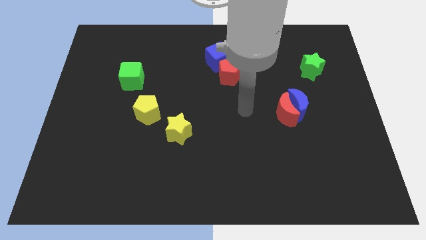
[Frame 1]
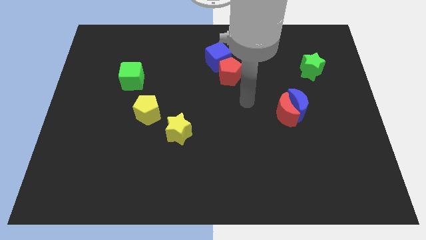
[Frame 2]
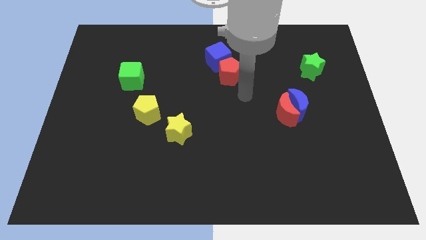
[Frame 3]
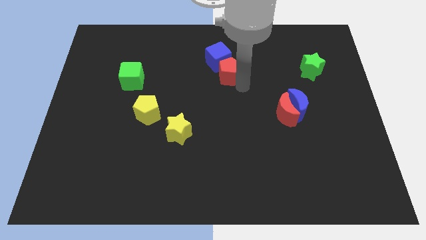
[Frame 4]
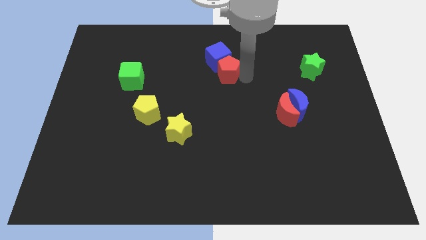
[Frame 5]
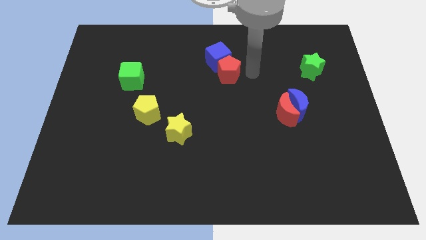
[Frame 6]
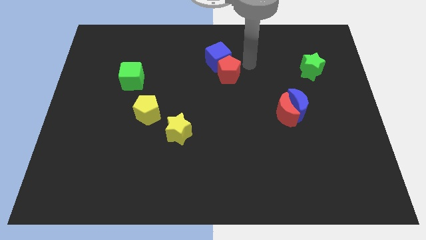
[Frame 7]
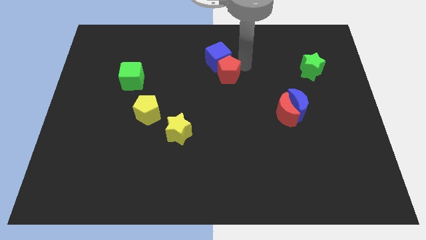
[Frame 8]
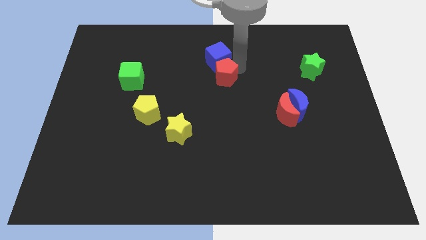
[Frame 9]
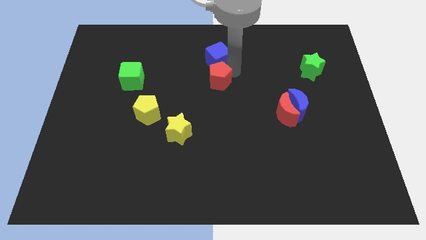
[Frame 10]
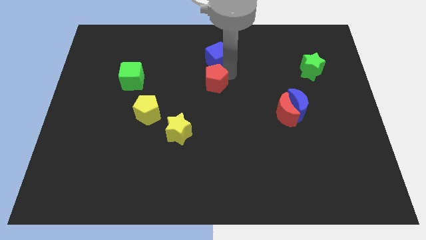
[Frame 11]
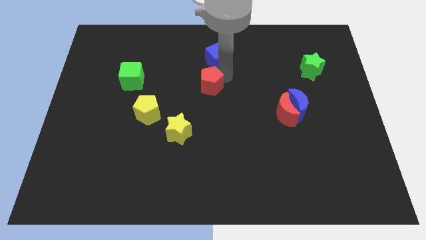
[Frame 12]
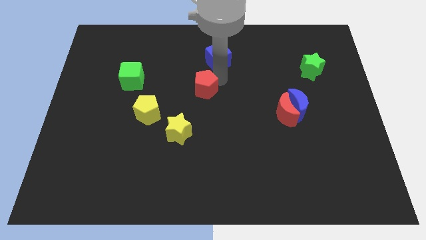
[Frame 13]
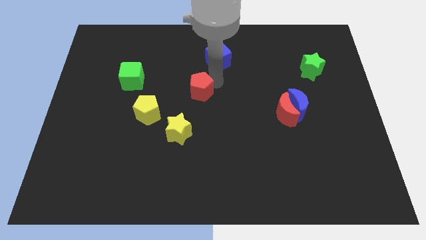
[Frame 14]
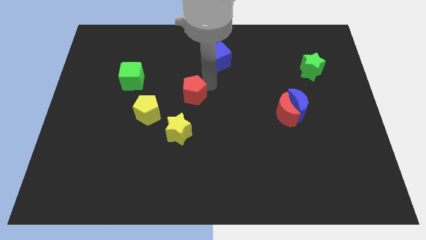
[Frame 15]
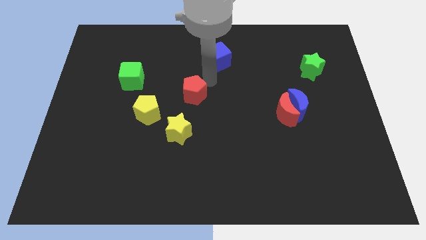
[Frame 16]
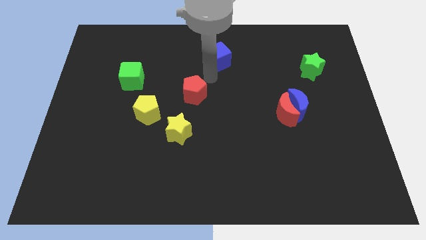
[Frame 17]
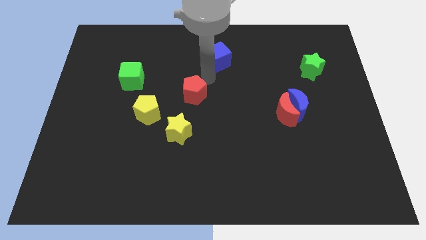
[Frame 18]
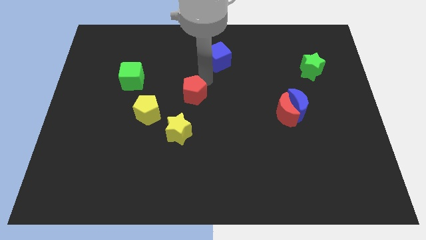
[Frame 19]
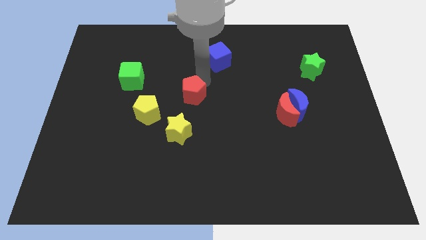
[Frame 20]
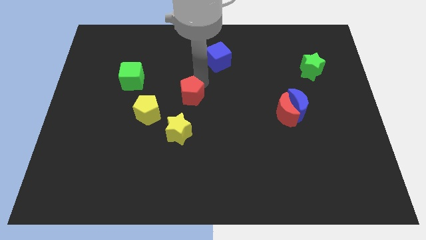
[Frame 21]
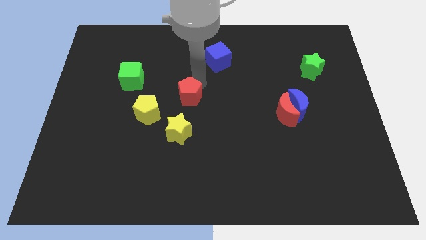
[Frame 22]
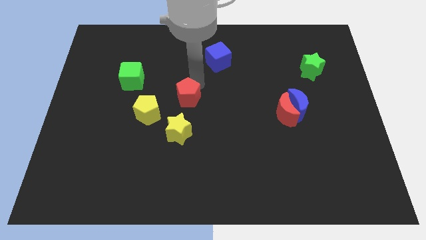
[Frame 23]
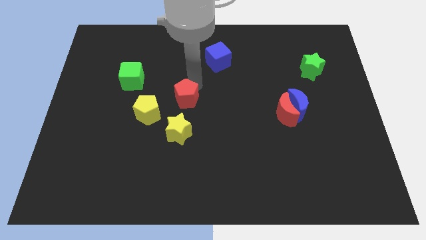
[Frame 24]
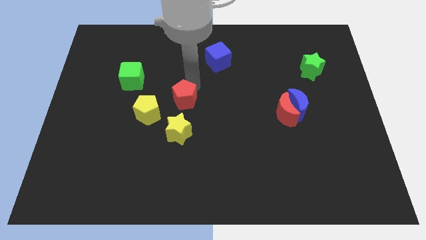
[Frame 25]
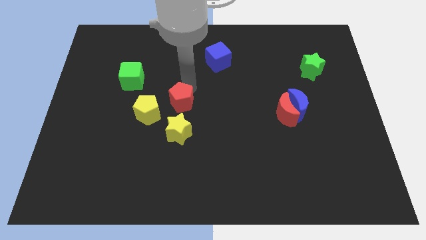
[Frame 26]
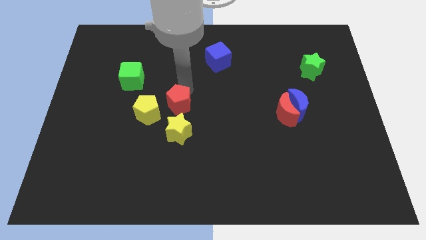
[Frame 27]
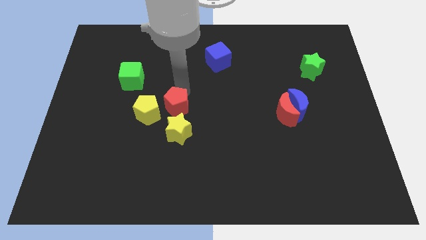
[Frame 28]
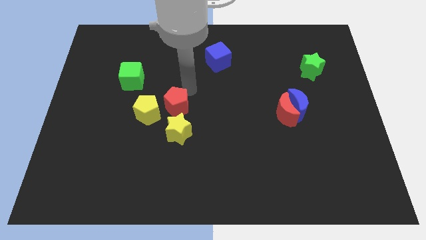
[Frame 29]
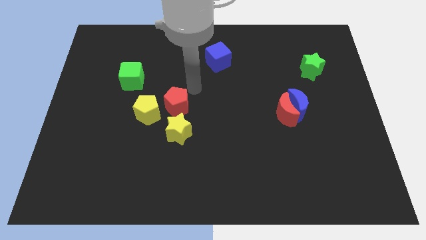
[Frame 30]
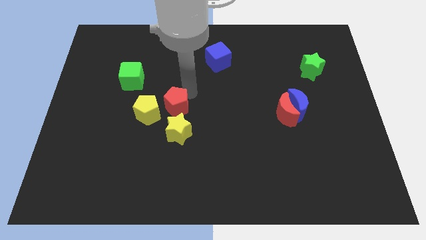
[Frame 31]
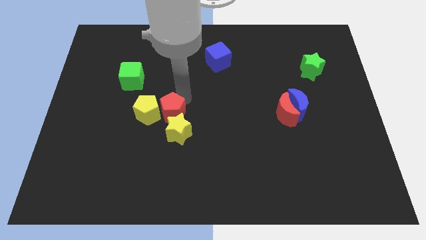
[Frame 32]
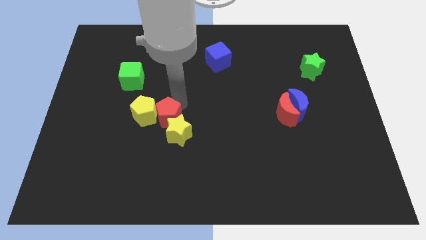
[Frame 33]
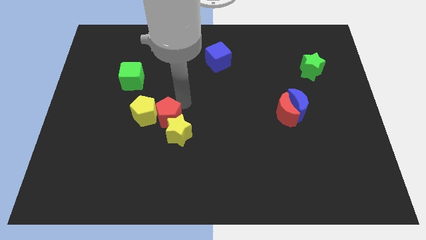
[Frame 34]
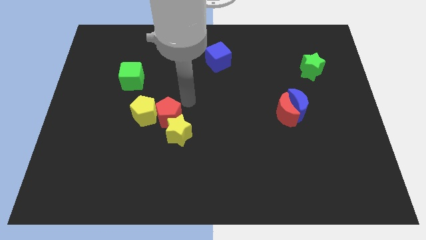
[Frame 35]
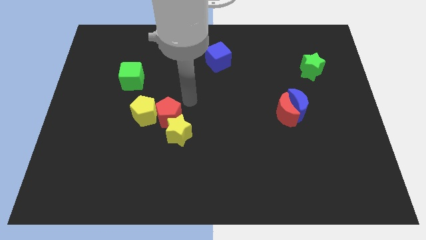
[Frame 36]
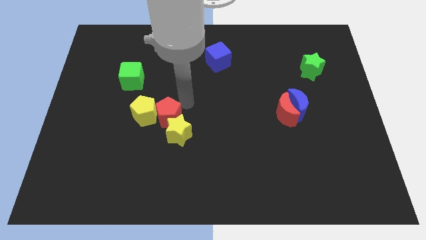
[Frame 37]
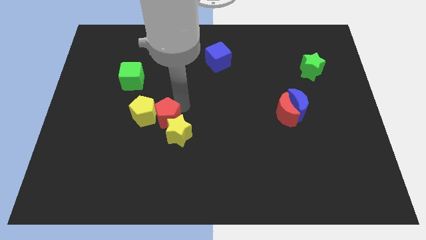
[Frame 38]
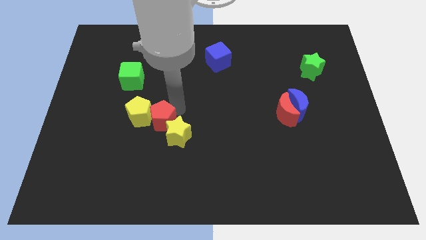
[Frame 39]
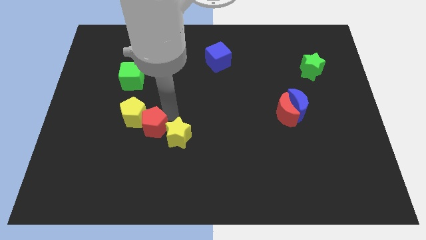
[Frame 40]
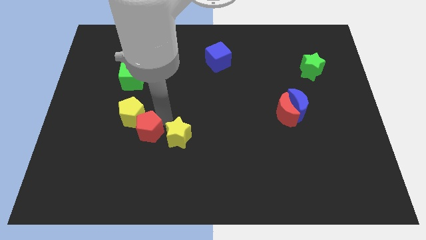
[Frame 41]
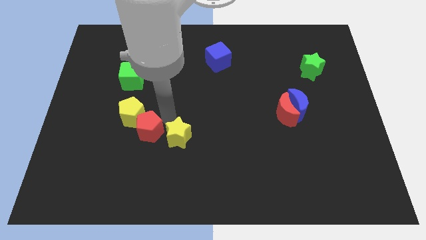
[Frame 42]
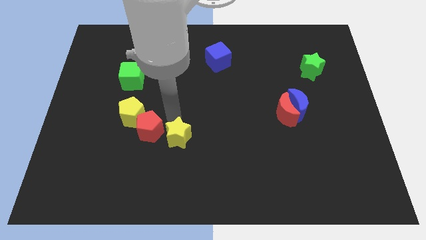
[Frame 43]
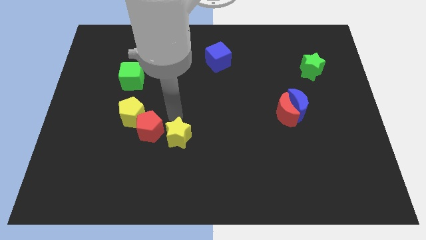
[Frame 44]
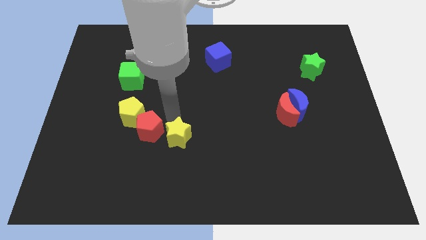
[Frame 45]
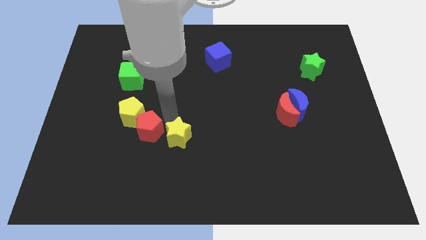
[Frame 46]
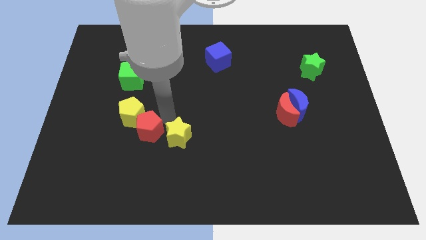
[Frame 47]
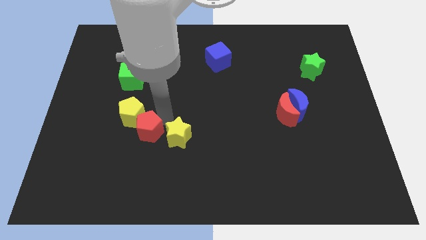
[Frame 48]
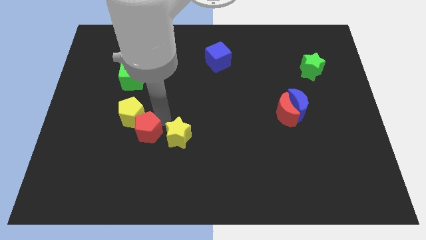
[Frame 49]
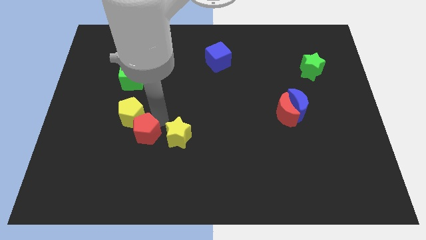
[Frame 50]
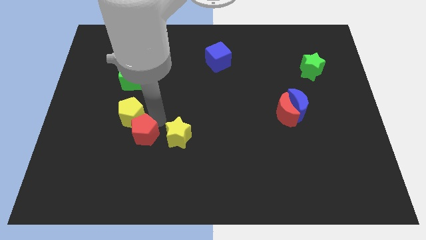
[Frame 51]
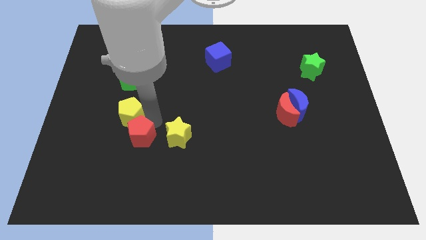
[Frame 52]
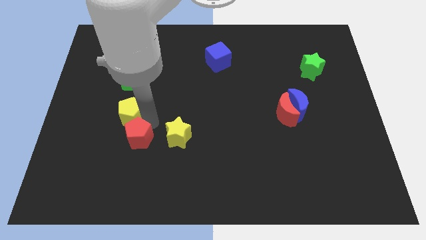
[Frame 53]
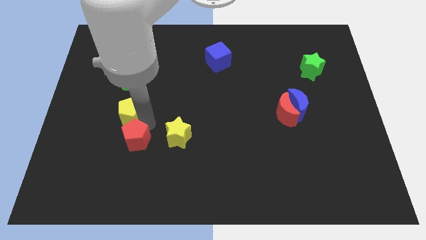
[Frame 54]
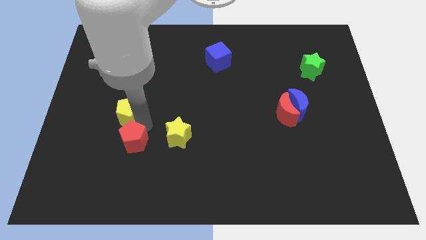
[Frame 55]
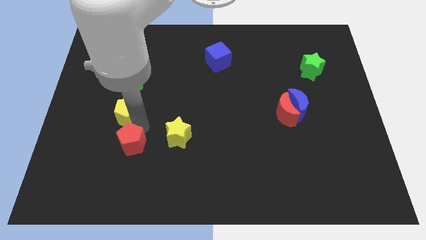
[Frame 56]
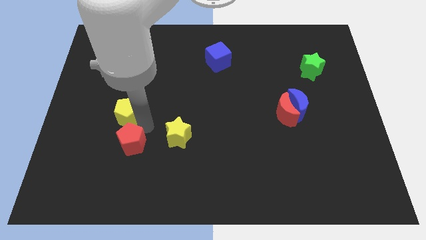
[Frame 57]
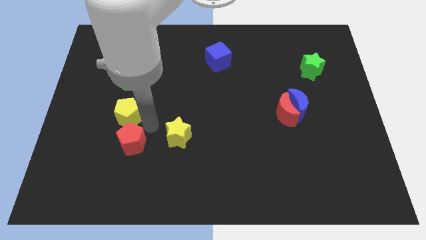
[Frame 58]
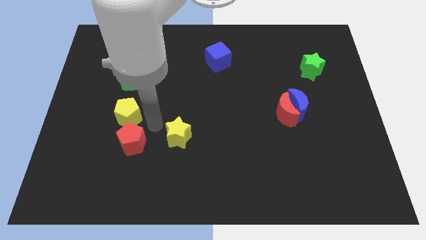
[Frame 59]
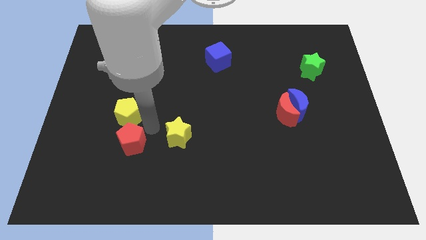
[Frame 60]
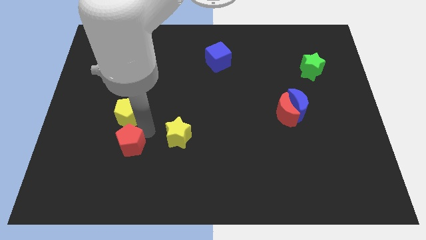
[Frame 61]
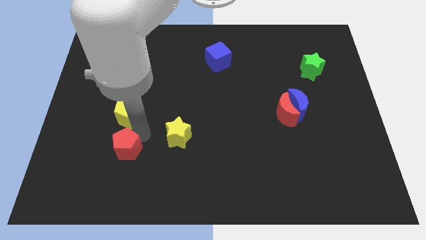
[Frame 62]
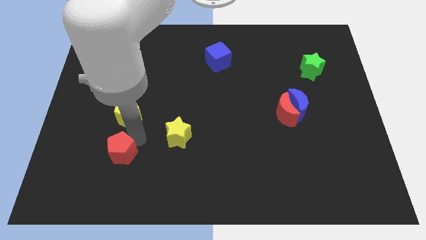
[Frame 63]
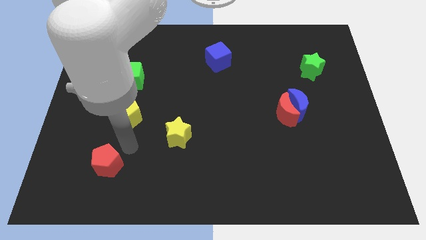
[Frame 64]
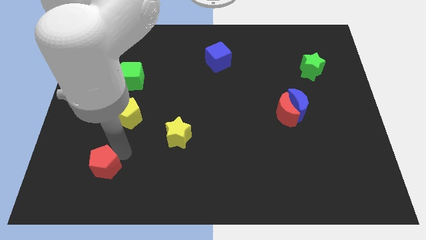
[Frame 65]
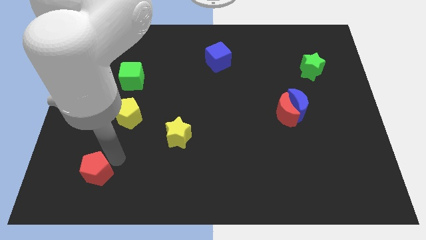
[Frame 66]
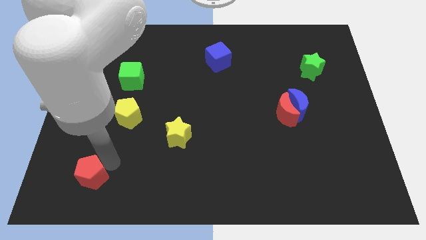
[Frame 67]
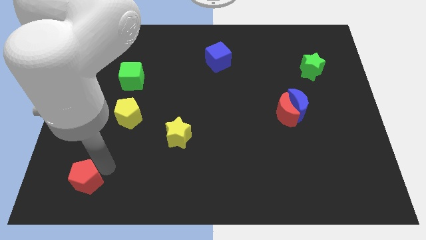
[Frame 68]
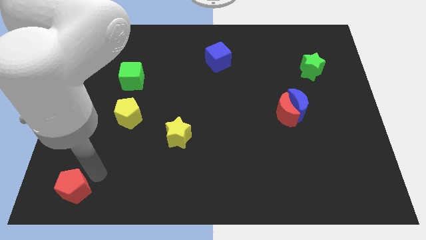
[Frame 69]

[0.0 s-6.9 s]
move the red pentagon to the lower left corner
